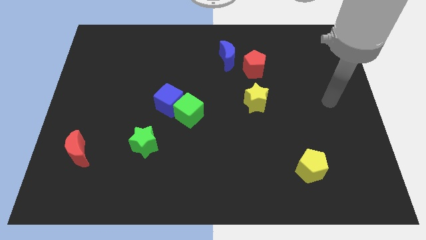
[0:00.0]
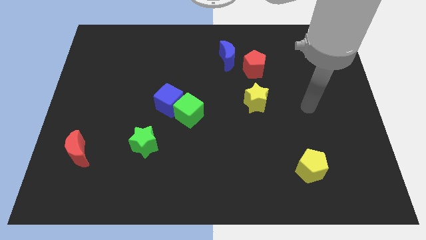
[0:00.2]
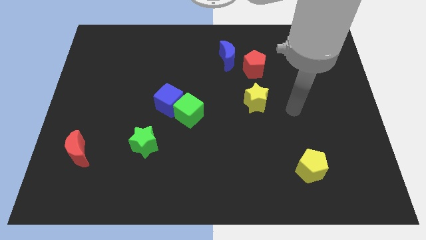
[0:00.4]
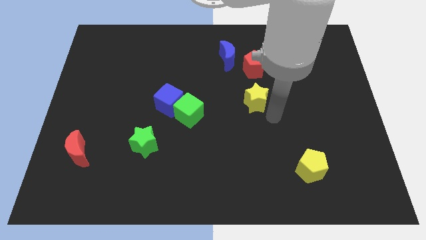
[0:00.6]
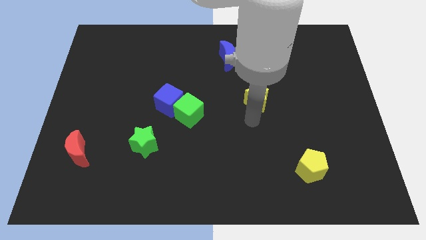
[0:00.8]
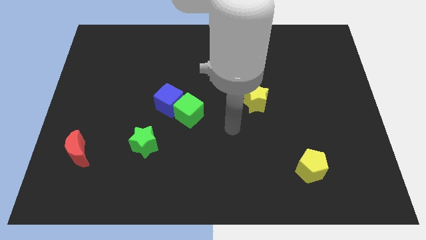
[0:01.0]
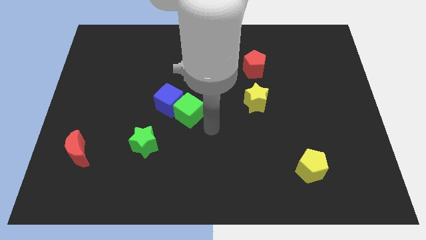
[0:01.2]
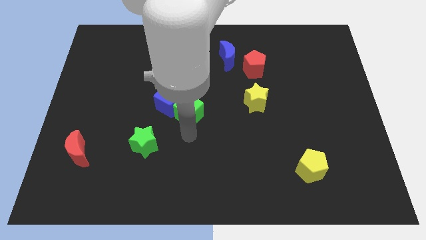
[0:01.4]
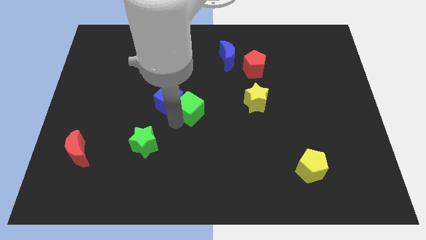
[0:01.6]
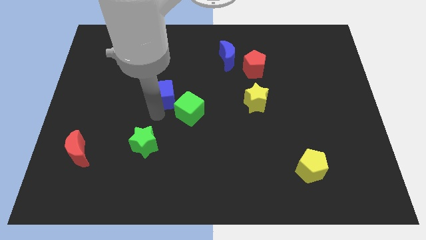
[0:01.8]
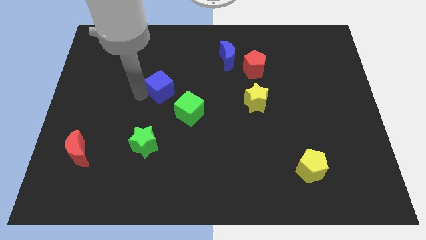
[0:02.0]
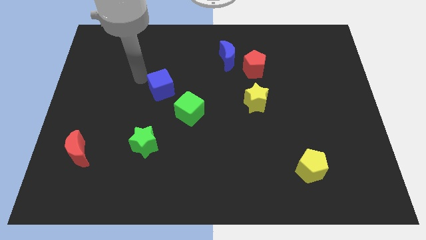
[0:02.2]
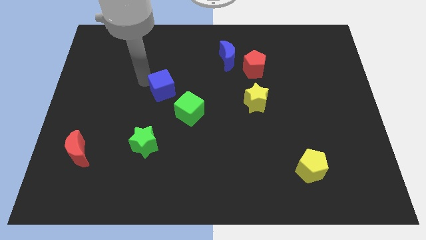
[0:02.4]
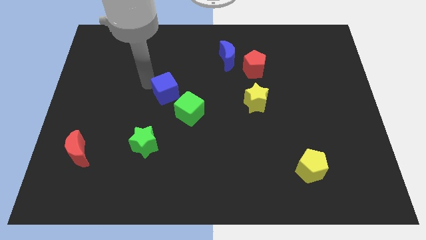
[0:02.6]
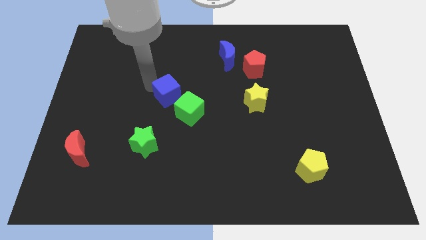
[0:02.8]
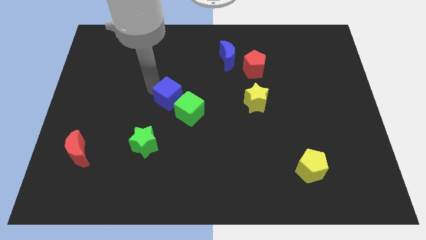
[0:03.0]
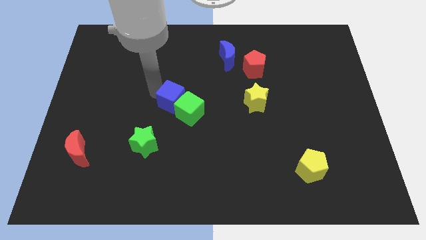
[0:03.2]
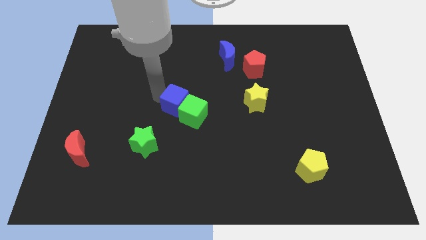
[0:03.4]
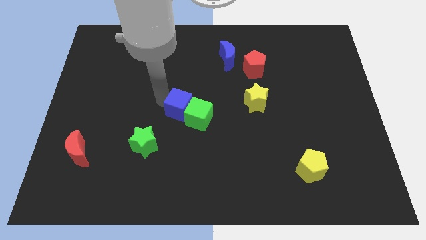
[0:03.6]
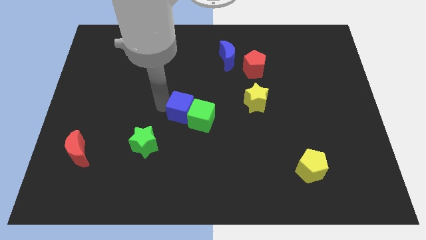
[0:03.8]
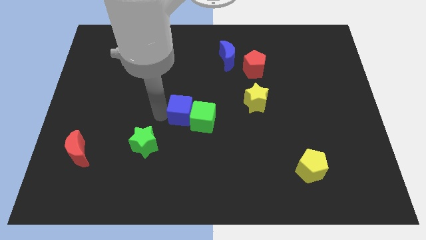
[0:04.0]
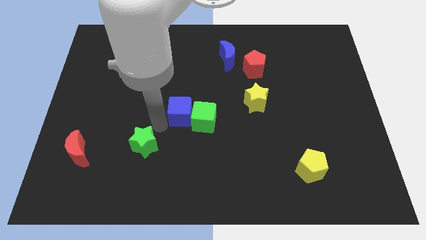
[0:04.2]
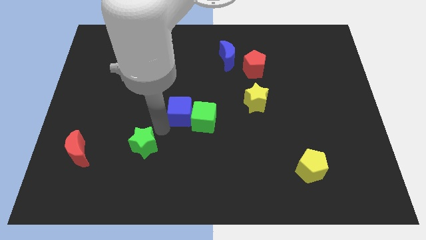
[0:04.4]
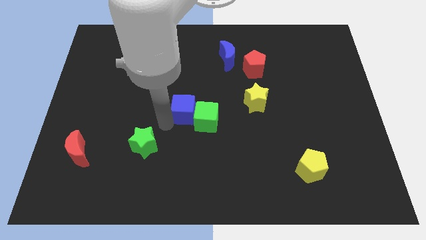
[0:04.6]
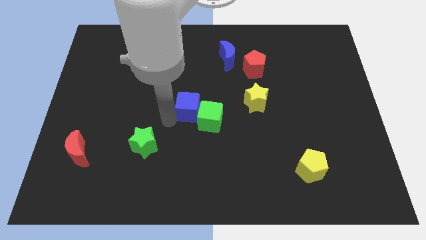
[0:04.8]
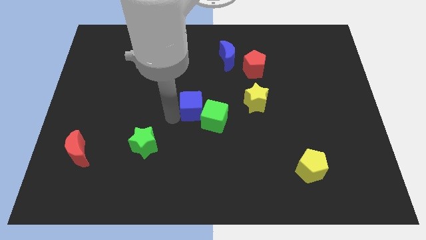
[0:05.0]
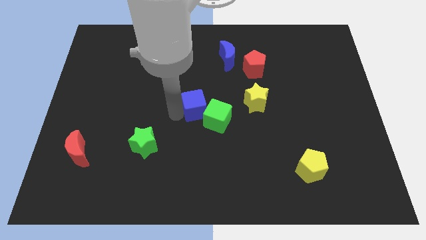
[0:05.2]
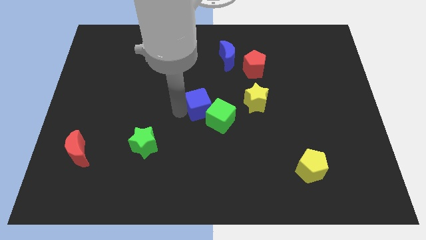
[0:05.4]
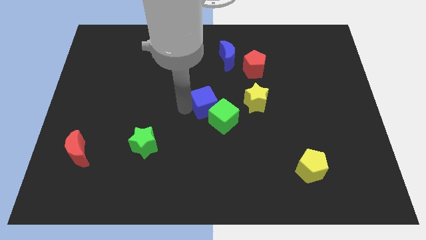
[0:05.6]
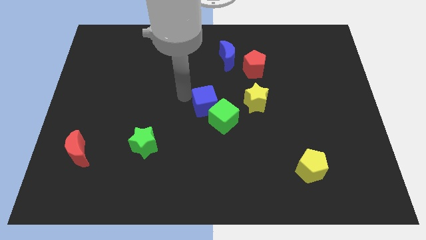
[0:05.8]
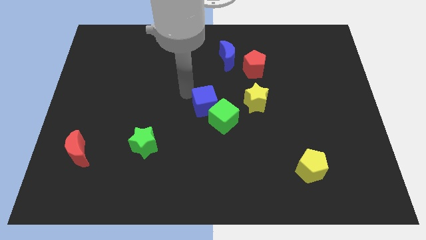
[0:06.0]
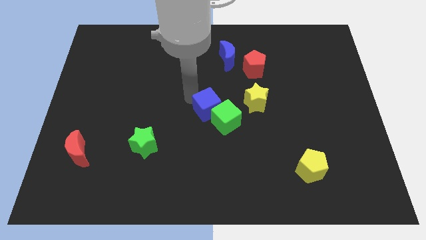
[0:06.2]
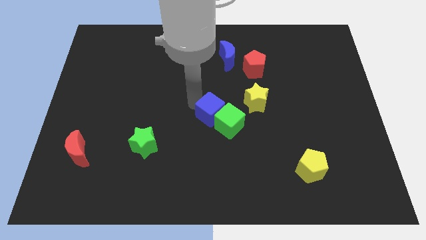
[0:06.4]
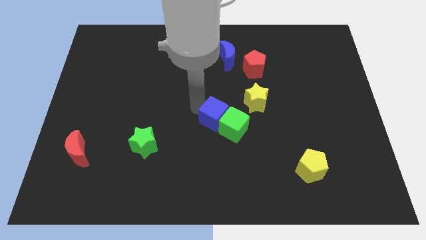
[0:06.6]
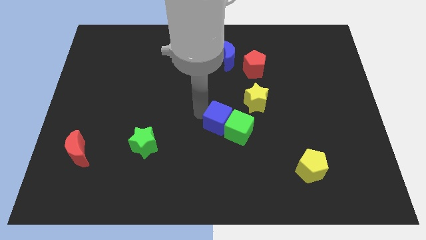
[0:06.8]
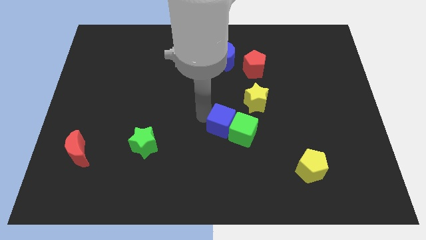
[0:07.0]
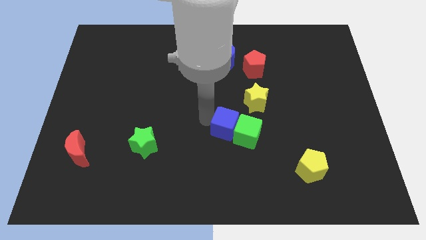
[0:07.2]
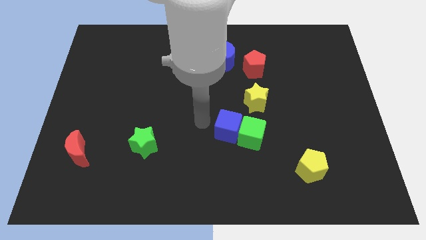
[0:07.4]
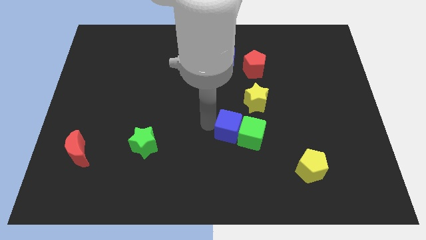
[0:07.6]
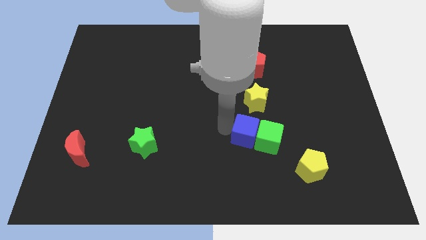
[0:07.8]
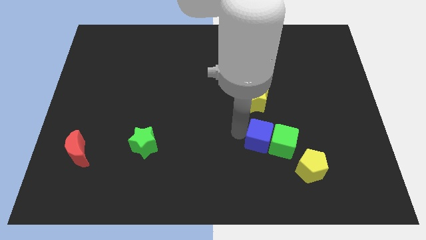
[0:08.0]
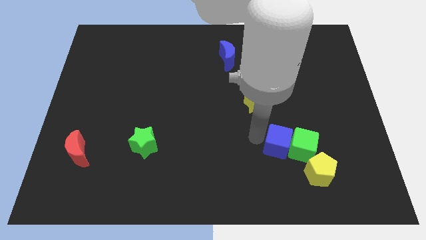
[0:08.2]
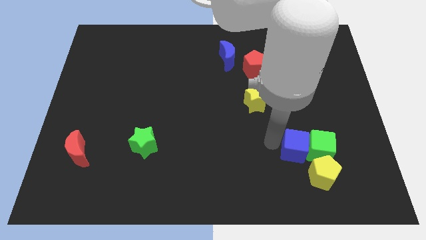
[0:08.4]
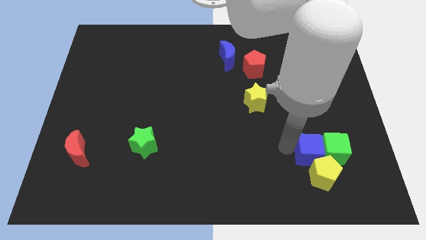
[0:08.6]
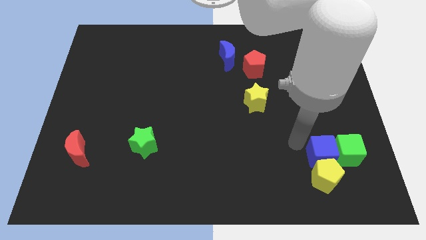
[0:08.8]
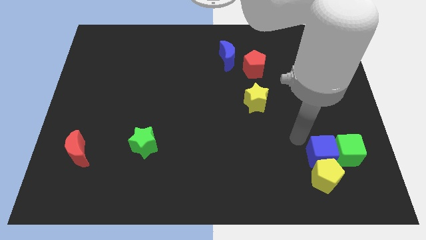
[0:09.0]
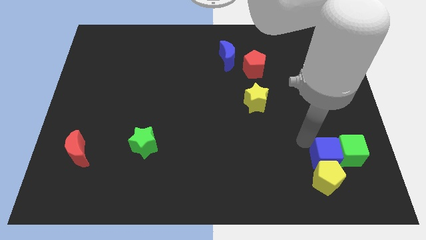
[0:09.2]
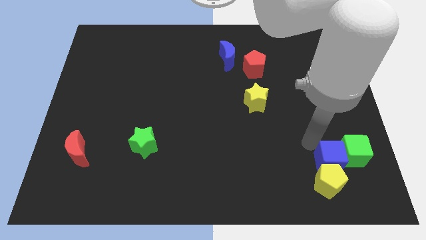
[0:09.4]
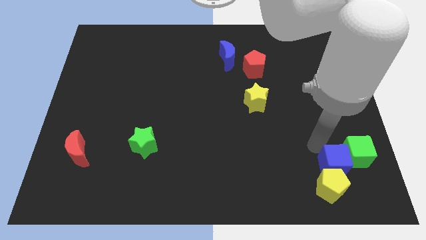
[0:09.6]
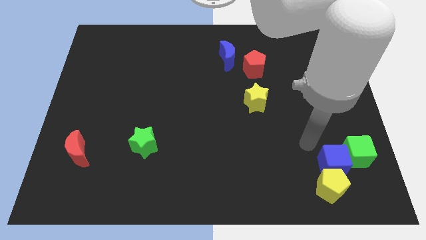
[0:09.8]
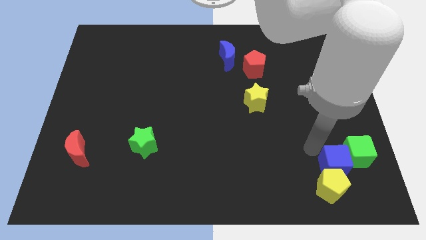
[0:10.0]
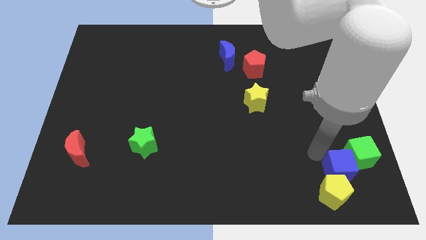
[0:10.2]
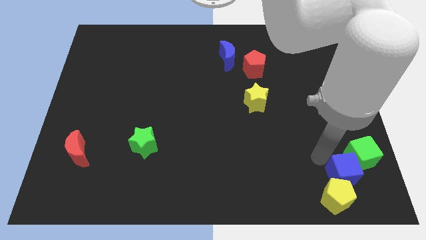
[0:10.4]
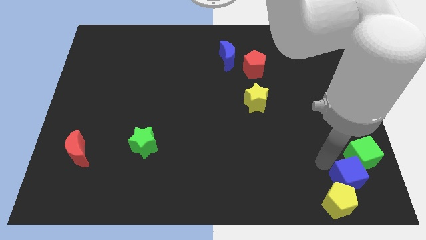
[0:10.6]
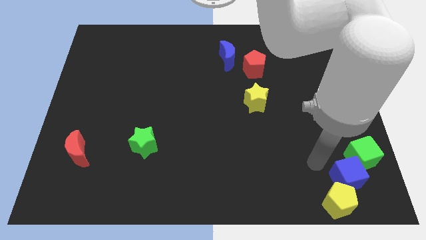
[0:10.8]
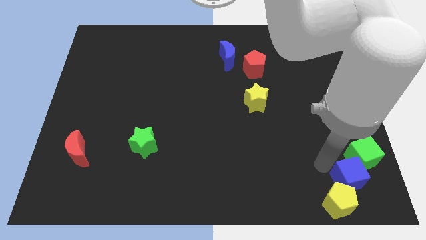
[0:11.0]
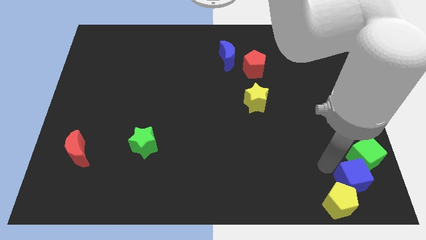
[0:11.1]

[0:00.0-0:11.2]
put the blue cube to the lower right corner

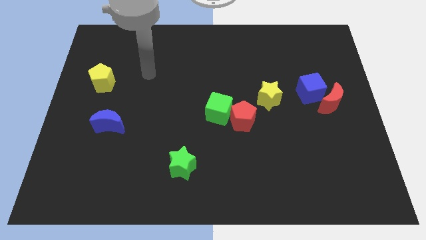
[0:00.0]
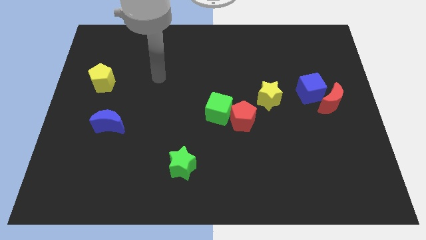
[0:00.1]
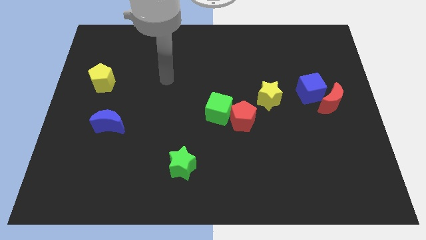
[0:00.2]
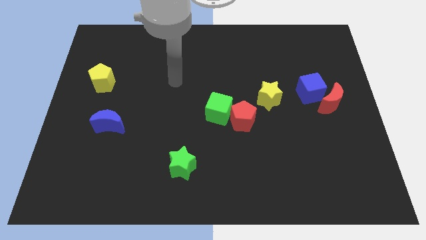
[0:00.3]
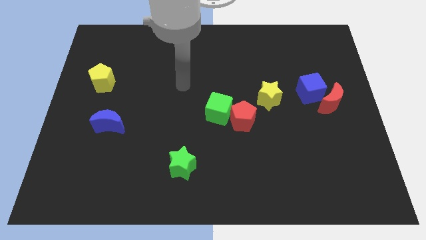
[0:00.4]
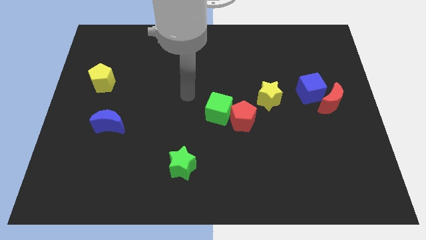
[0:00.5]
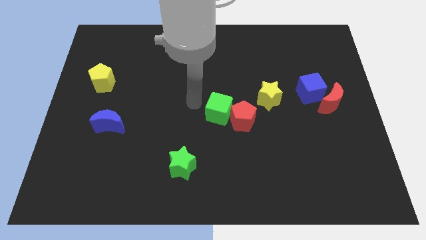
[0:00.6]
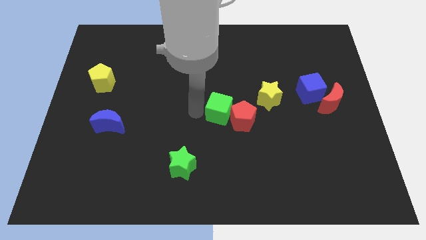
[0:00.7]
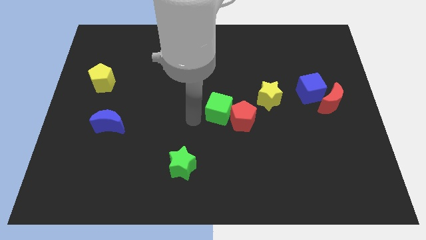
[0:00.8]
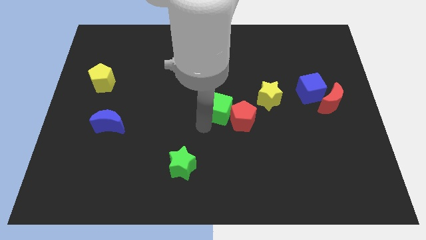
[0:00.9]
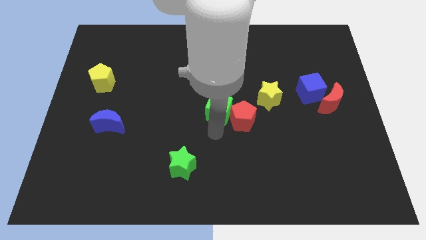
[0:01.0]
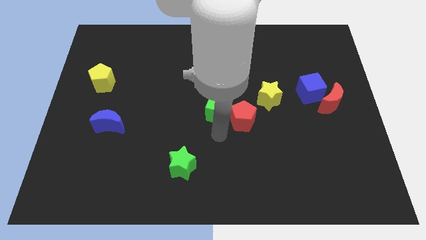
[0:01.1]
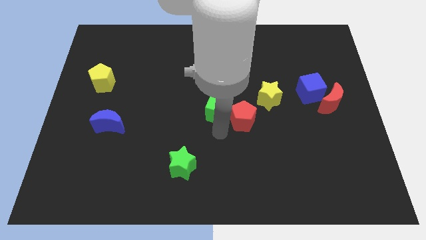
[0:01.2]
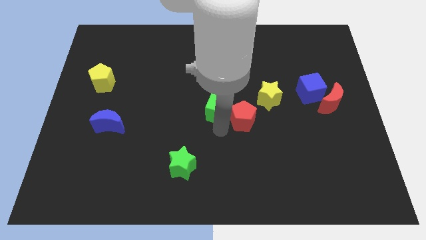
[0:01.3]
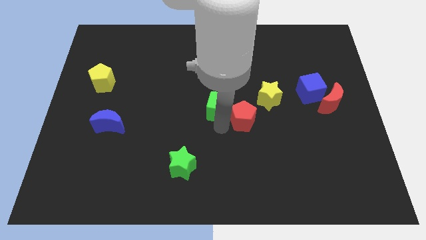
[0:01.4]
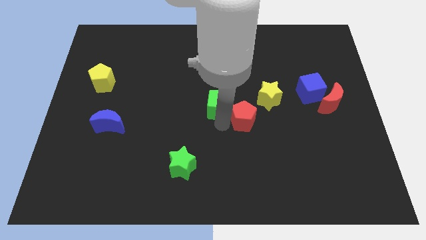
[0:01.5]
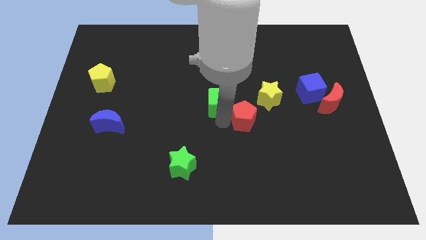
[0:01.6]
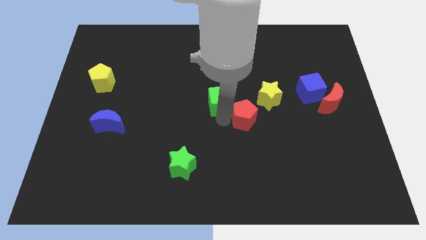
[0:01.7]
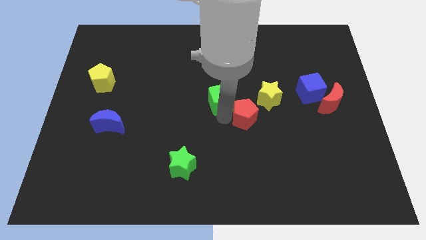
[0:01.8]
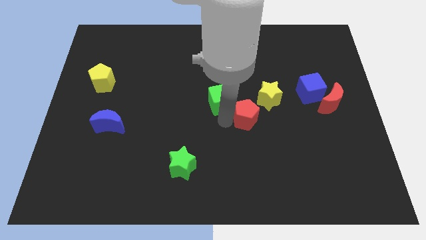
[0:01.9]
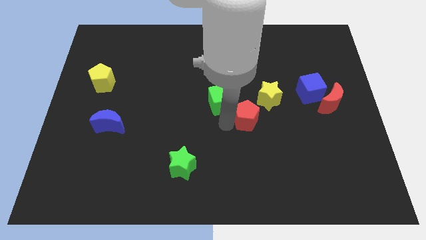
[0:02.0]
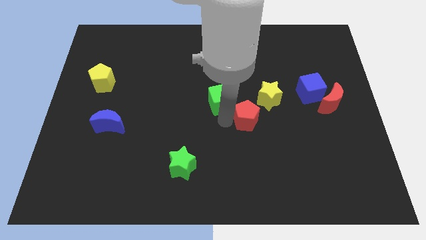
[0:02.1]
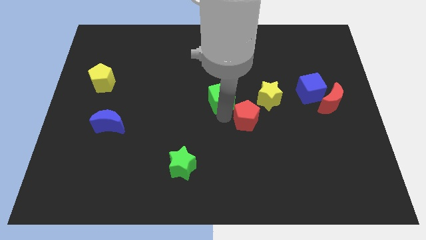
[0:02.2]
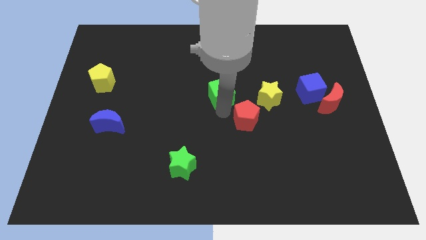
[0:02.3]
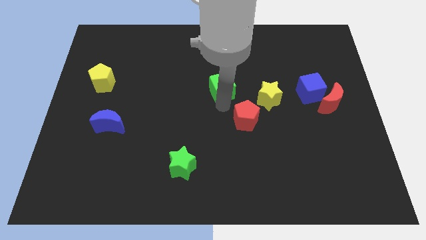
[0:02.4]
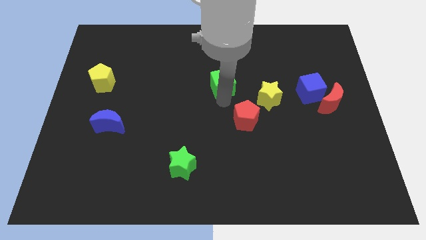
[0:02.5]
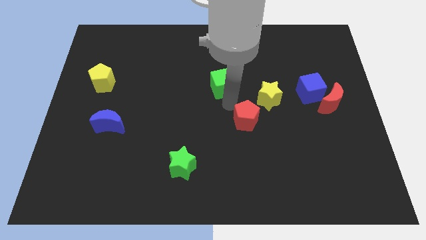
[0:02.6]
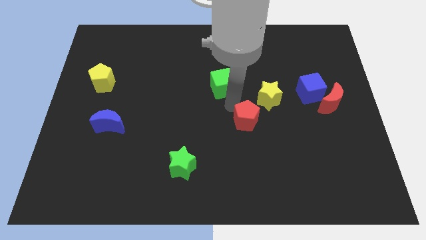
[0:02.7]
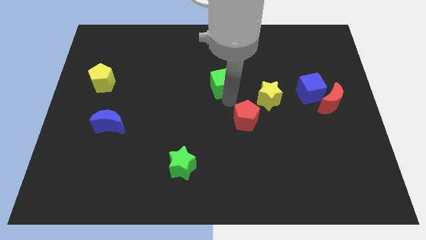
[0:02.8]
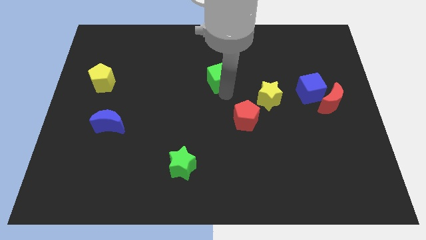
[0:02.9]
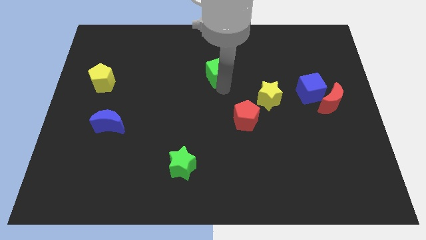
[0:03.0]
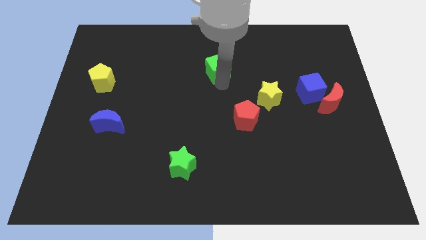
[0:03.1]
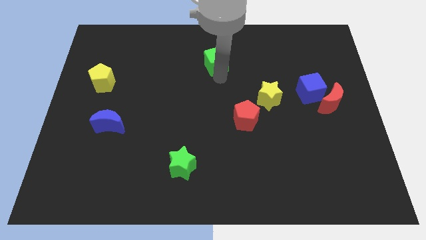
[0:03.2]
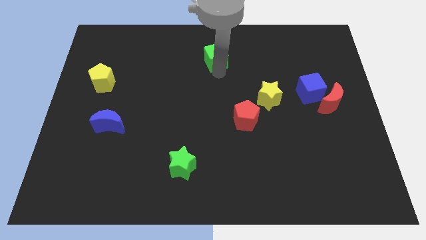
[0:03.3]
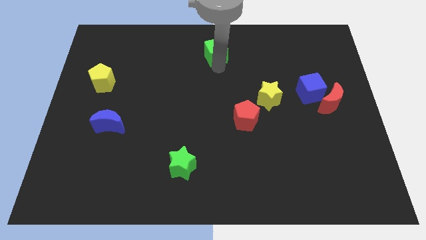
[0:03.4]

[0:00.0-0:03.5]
push the green cube to the top side
